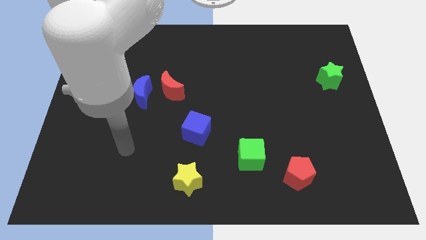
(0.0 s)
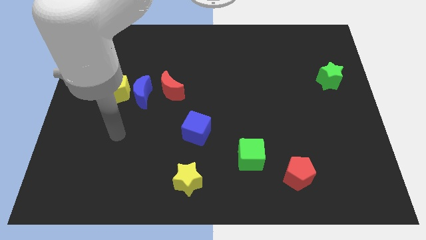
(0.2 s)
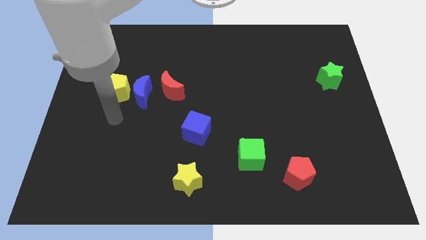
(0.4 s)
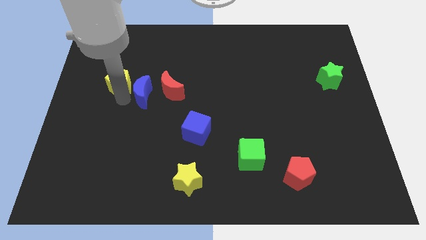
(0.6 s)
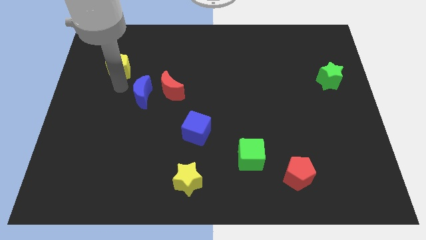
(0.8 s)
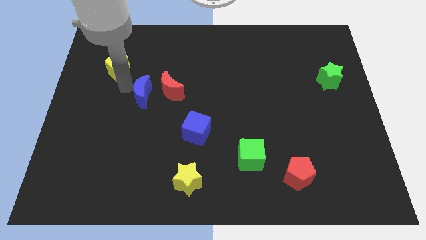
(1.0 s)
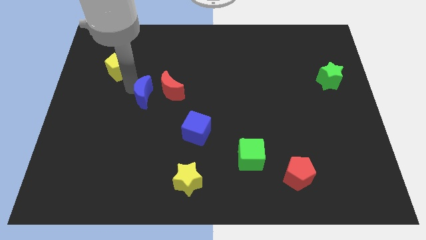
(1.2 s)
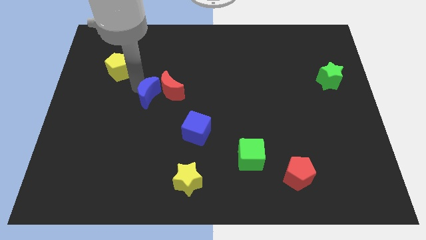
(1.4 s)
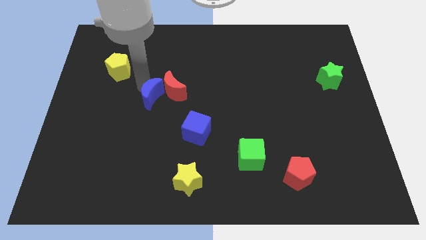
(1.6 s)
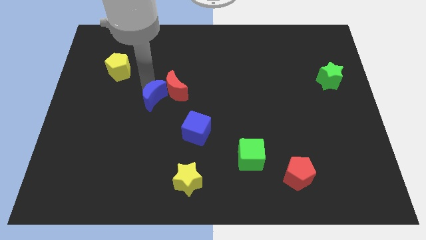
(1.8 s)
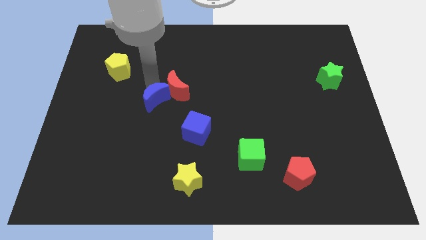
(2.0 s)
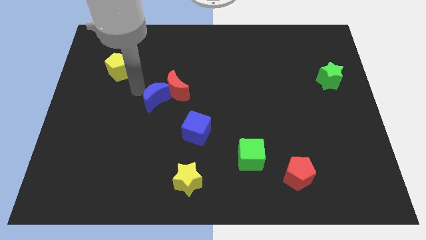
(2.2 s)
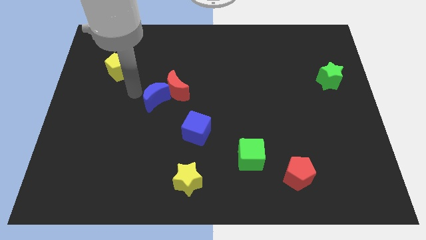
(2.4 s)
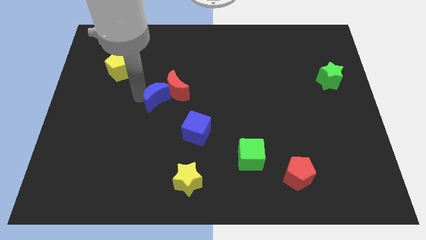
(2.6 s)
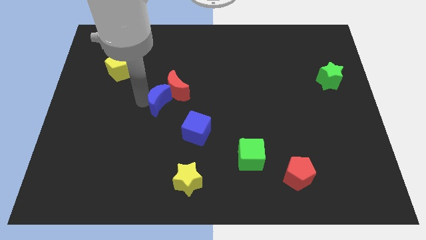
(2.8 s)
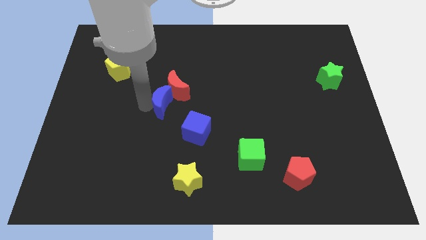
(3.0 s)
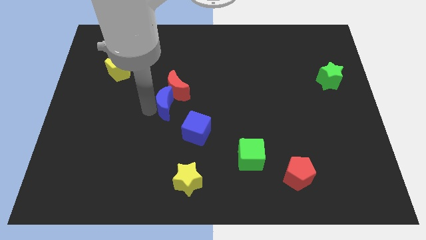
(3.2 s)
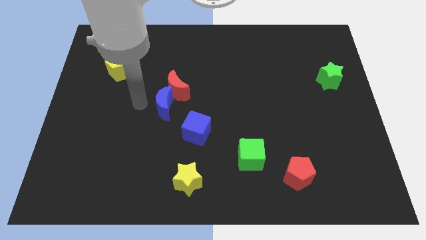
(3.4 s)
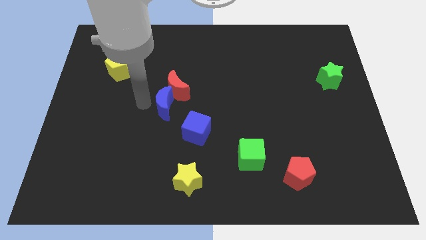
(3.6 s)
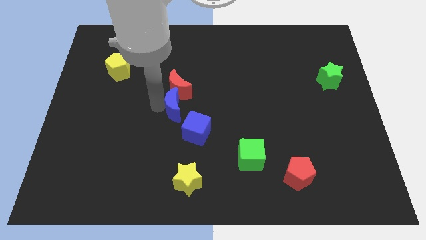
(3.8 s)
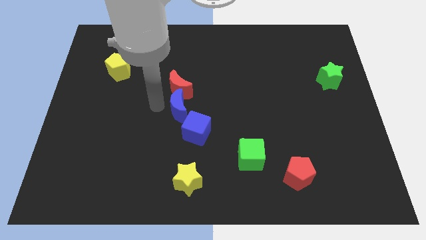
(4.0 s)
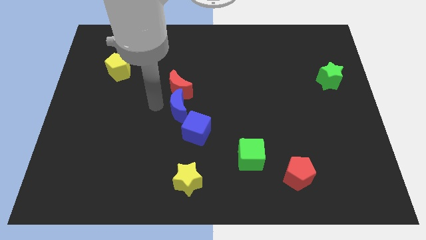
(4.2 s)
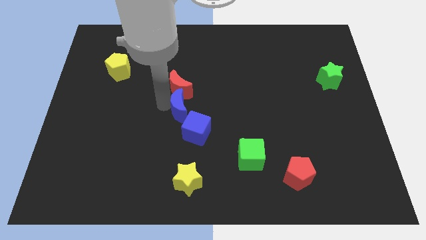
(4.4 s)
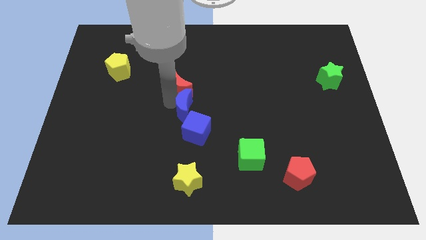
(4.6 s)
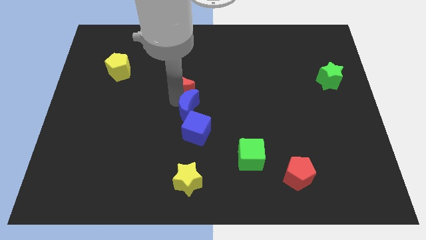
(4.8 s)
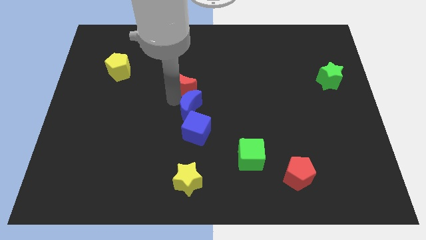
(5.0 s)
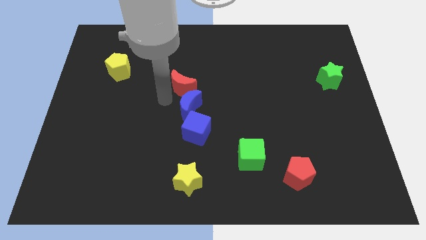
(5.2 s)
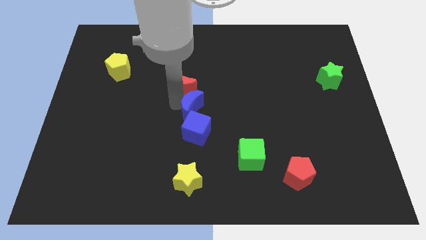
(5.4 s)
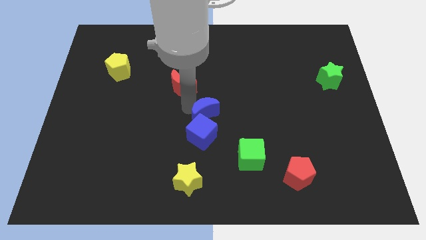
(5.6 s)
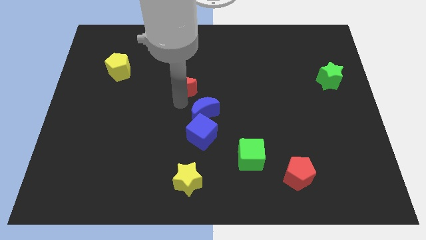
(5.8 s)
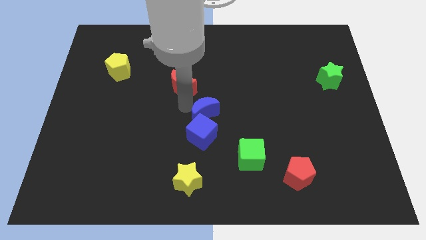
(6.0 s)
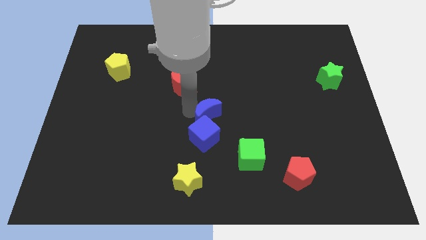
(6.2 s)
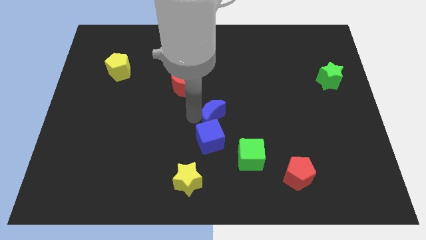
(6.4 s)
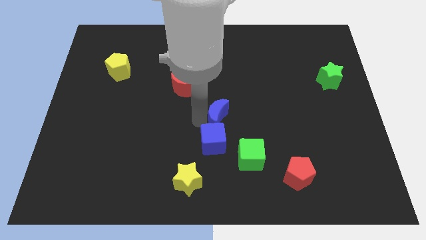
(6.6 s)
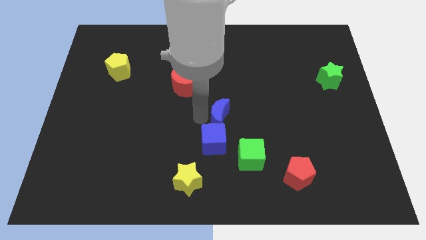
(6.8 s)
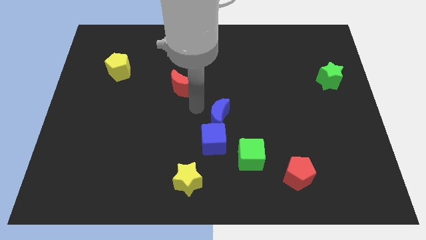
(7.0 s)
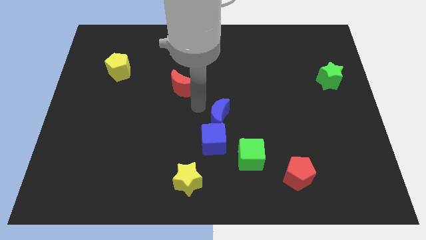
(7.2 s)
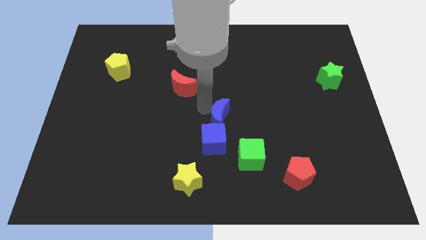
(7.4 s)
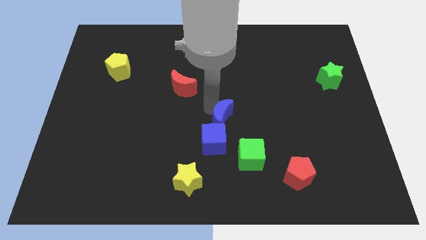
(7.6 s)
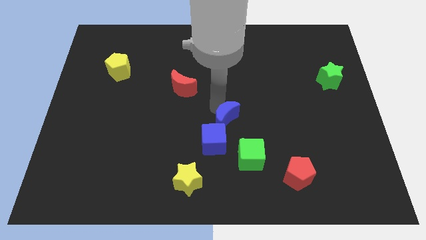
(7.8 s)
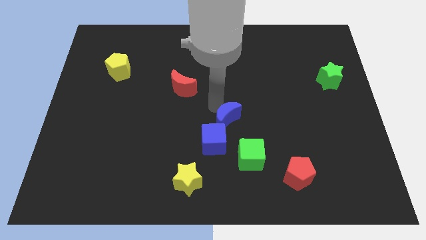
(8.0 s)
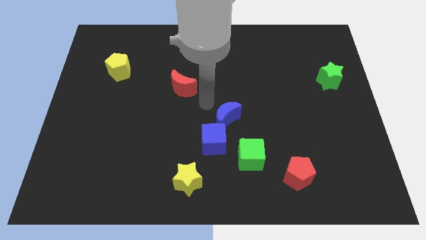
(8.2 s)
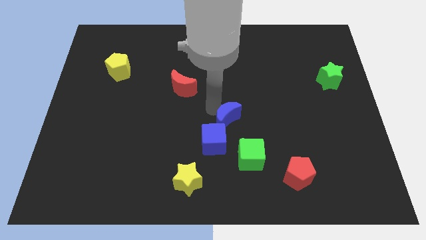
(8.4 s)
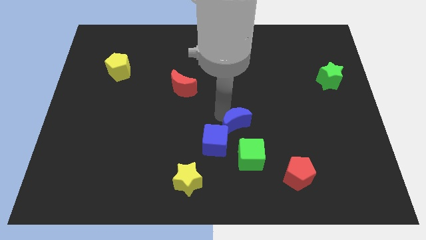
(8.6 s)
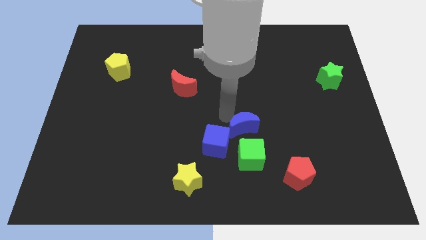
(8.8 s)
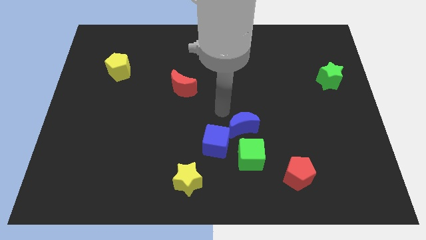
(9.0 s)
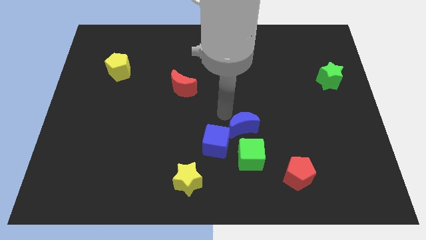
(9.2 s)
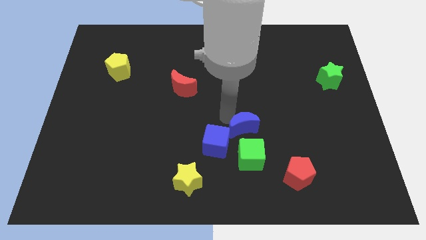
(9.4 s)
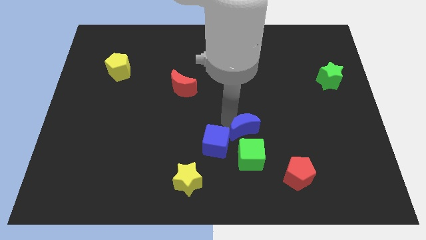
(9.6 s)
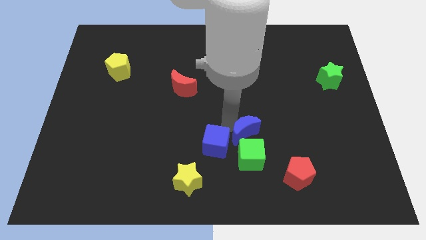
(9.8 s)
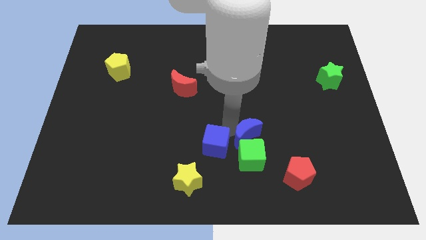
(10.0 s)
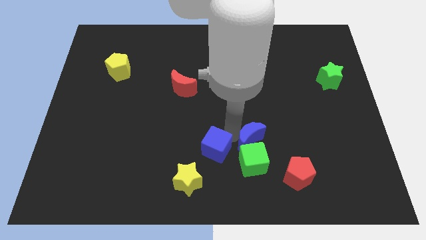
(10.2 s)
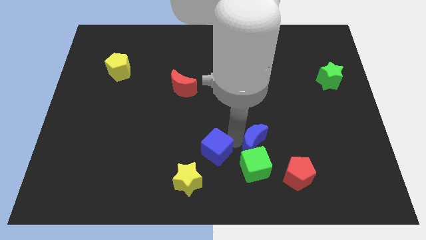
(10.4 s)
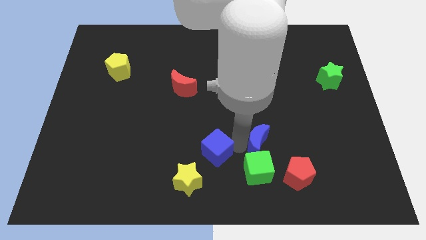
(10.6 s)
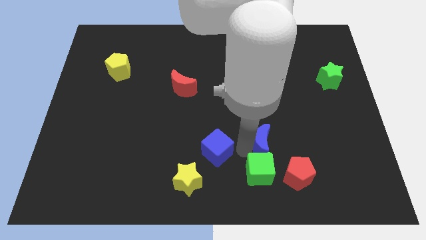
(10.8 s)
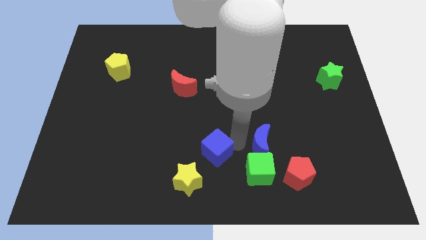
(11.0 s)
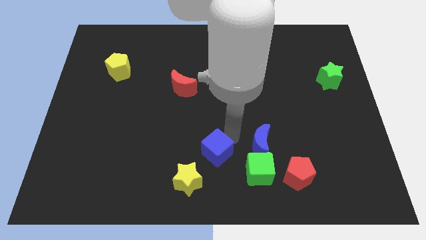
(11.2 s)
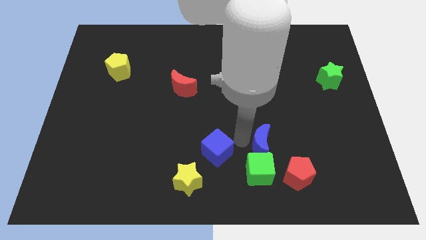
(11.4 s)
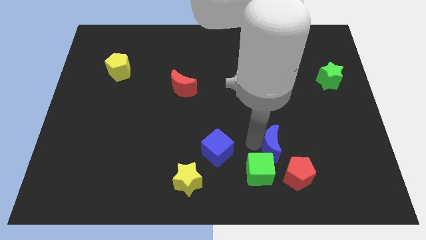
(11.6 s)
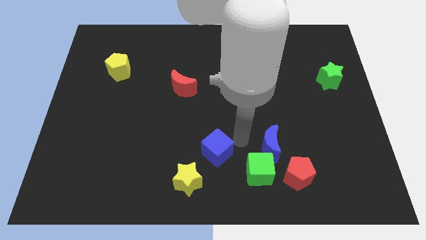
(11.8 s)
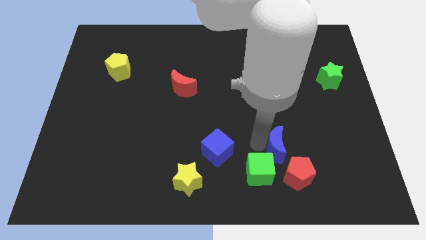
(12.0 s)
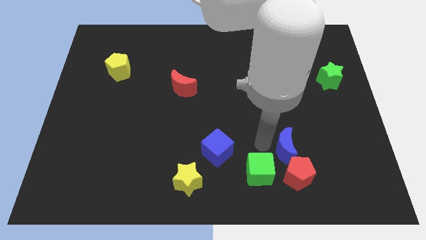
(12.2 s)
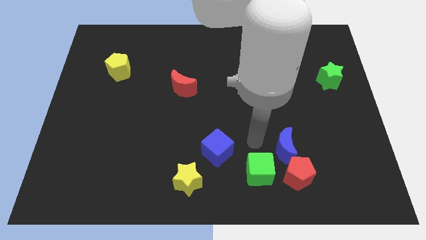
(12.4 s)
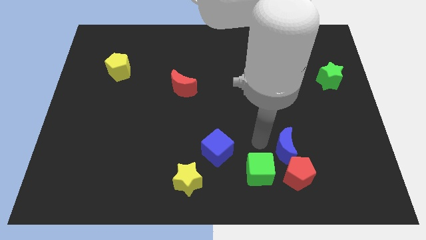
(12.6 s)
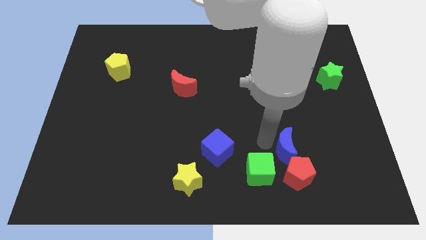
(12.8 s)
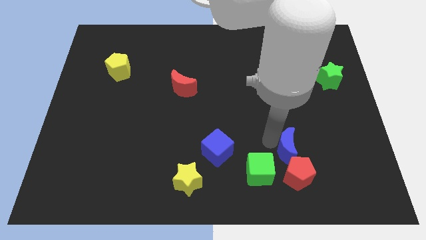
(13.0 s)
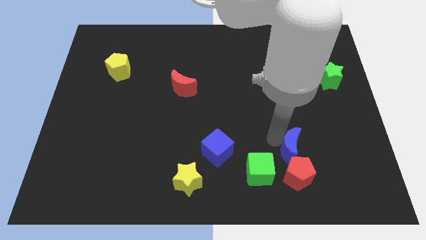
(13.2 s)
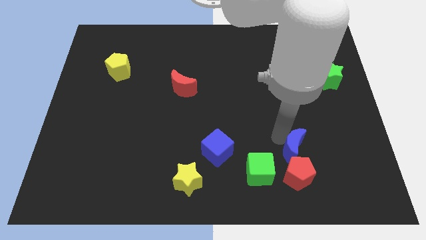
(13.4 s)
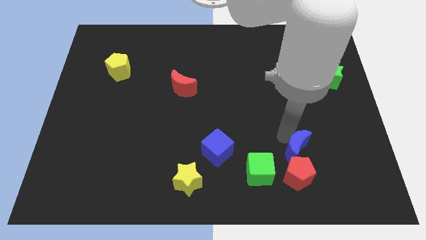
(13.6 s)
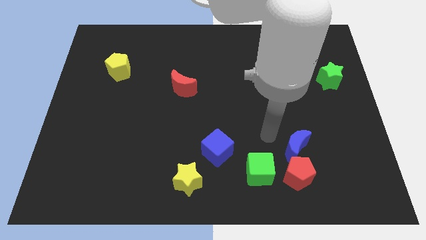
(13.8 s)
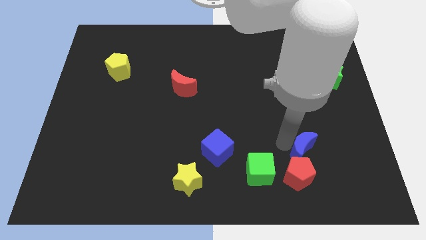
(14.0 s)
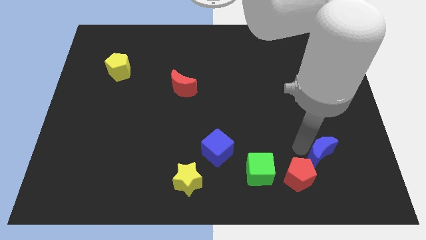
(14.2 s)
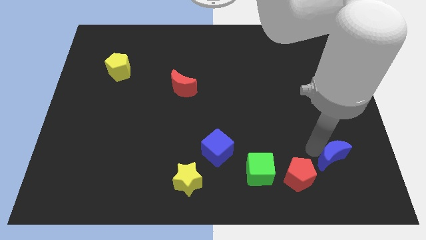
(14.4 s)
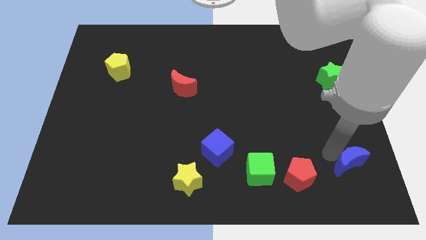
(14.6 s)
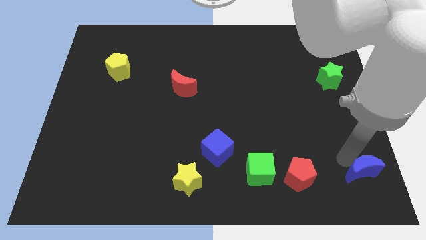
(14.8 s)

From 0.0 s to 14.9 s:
slide the blue moon to the bottom right
